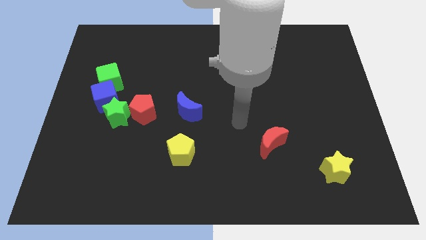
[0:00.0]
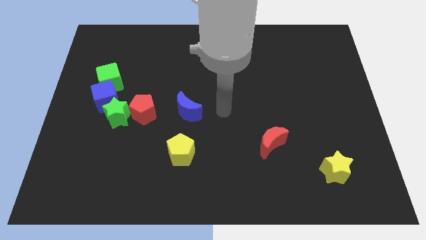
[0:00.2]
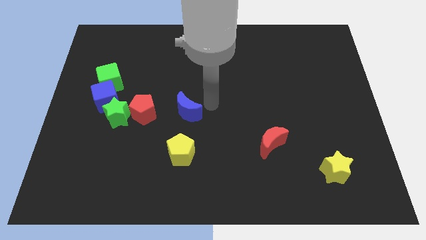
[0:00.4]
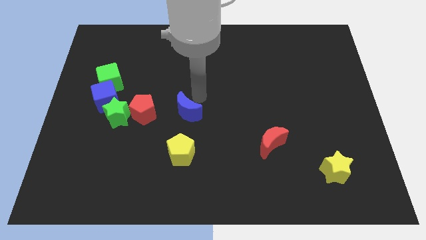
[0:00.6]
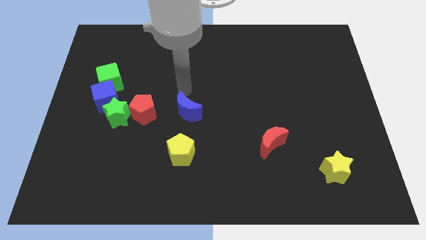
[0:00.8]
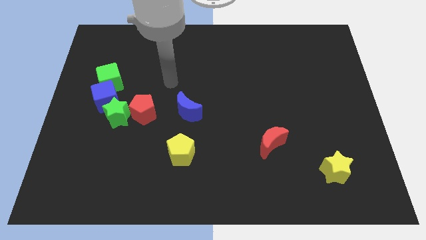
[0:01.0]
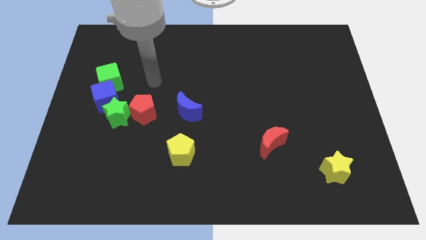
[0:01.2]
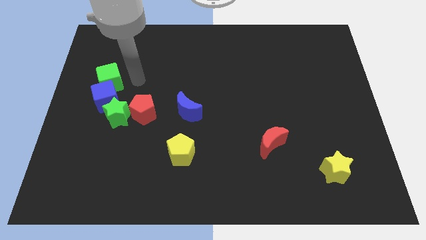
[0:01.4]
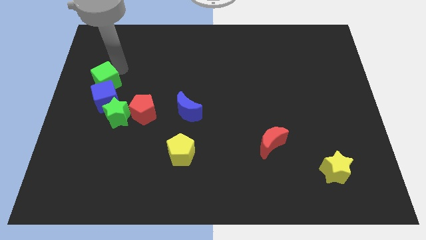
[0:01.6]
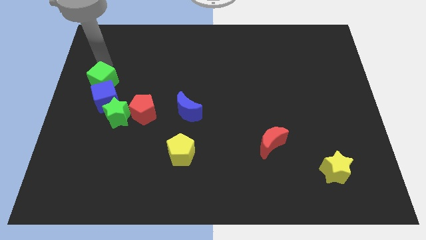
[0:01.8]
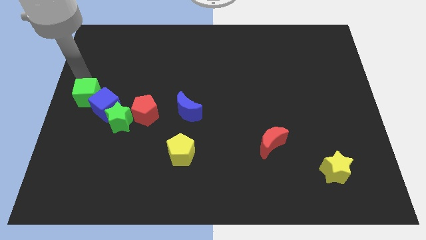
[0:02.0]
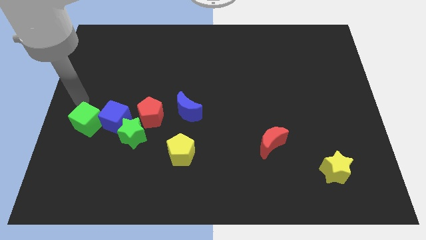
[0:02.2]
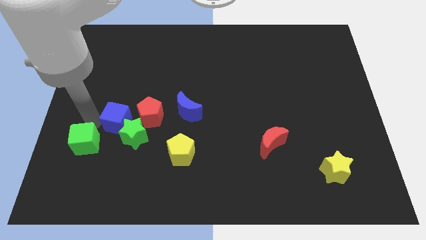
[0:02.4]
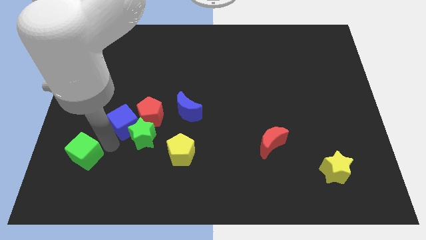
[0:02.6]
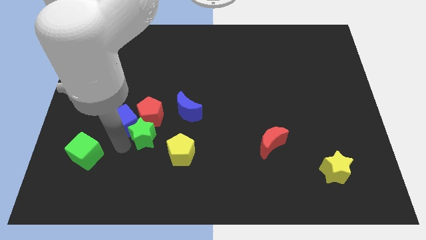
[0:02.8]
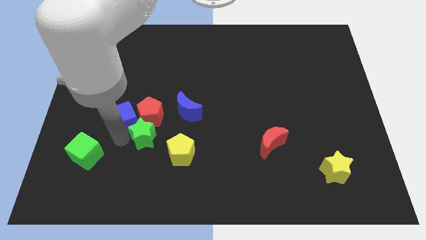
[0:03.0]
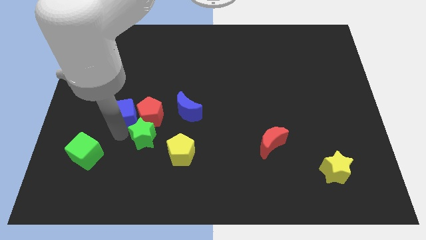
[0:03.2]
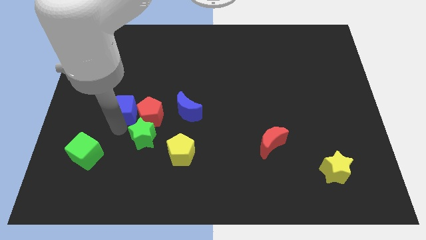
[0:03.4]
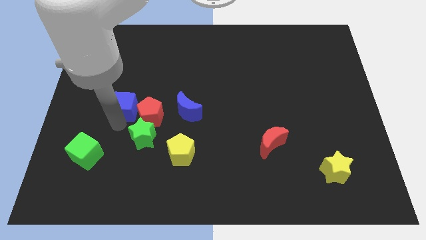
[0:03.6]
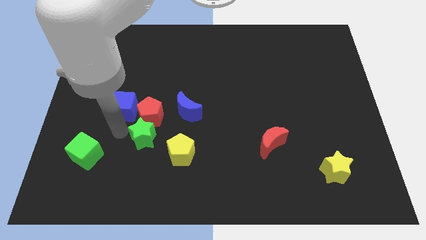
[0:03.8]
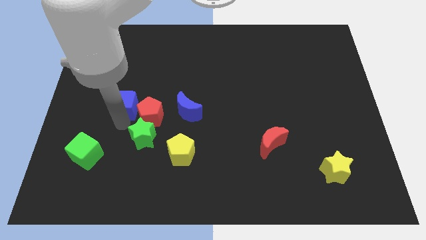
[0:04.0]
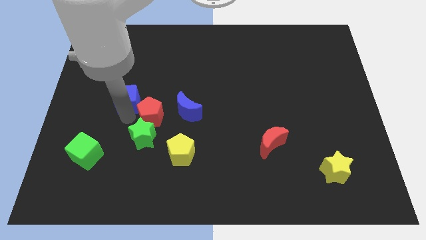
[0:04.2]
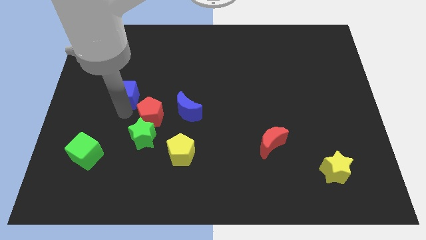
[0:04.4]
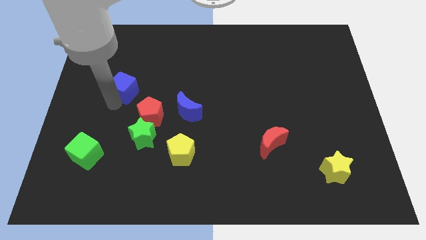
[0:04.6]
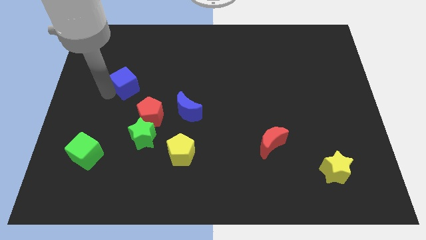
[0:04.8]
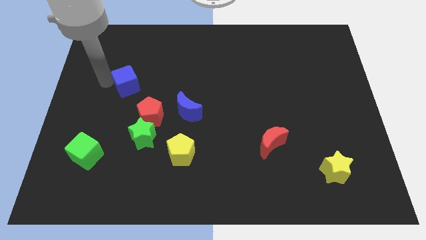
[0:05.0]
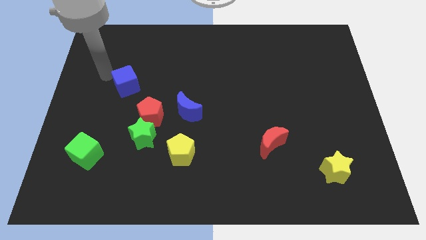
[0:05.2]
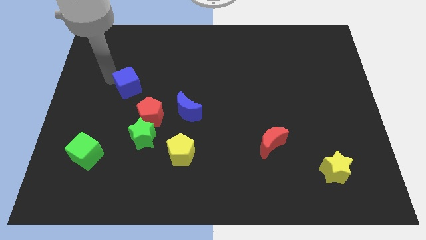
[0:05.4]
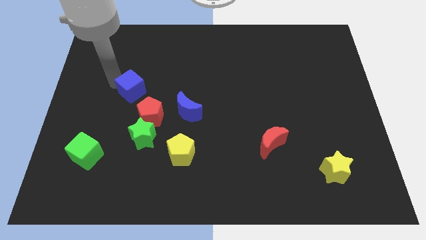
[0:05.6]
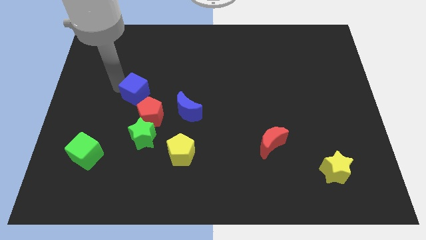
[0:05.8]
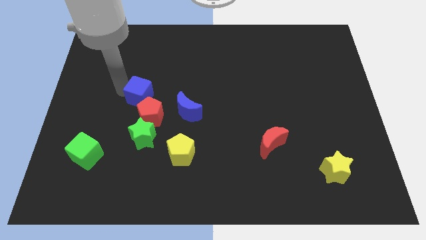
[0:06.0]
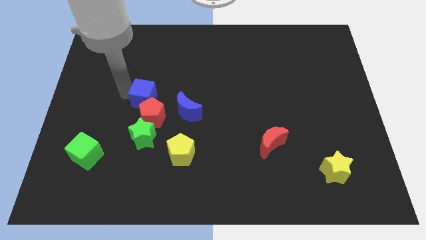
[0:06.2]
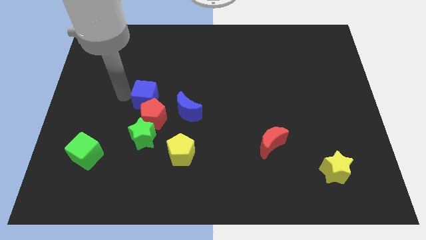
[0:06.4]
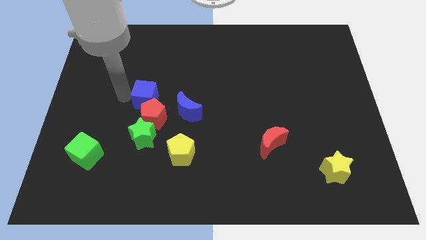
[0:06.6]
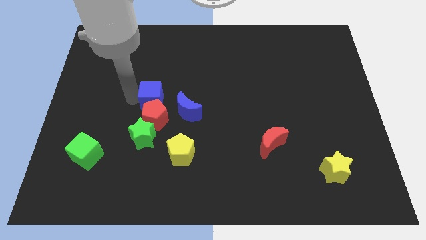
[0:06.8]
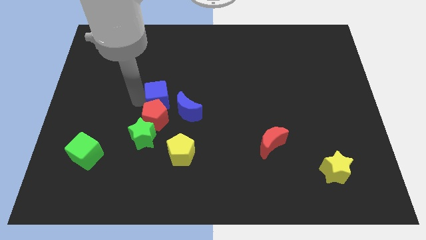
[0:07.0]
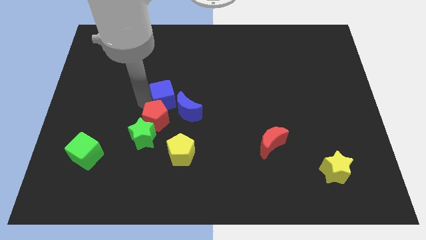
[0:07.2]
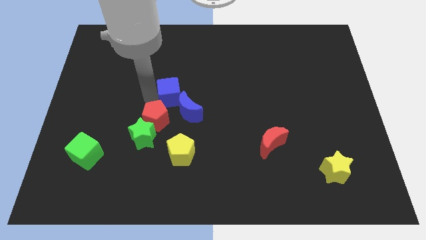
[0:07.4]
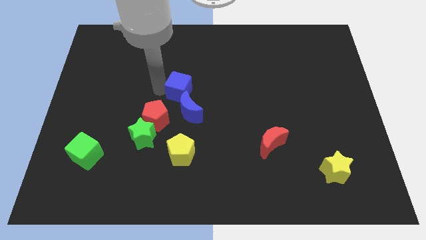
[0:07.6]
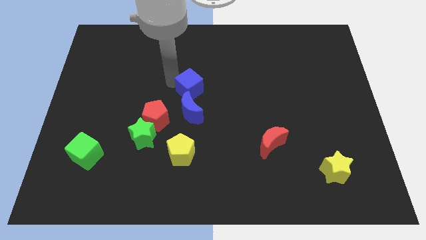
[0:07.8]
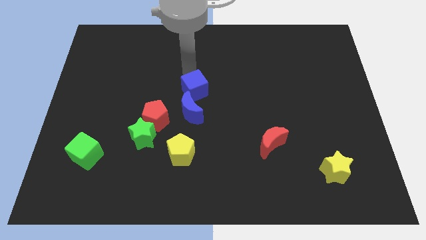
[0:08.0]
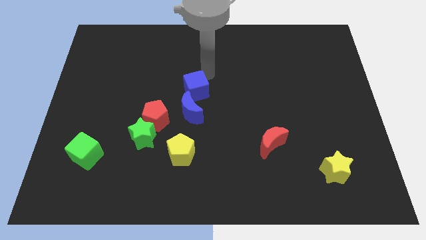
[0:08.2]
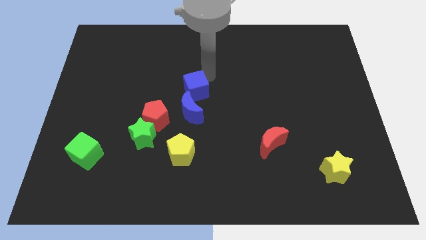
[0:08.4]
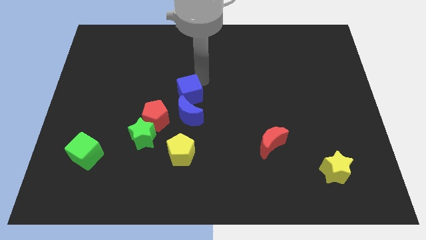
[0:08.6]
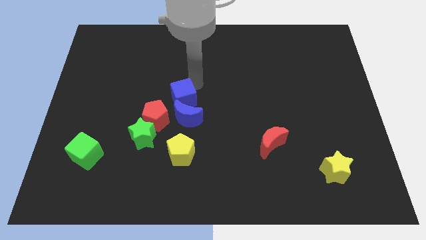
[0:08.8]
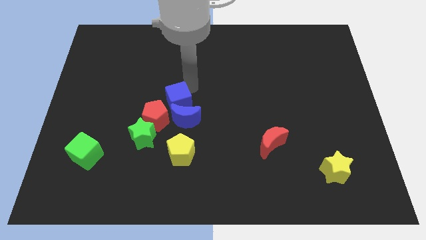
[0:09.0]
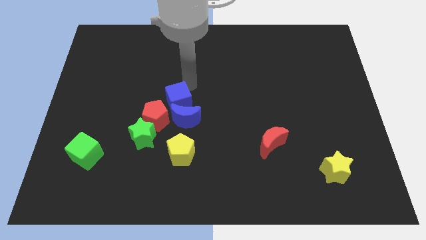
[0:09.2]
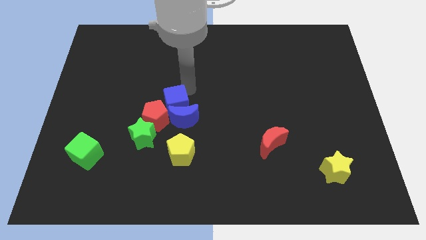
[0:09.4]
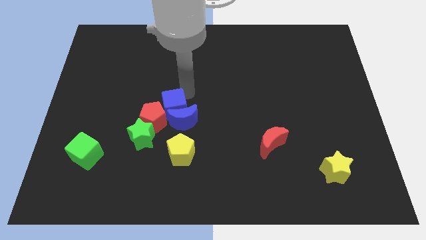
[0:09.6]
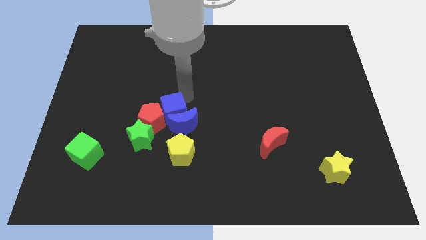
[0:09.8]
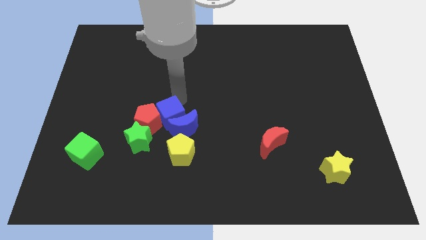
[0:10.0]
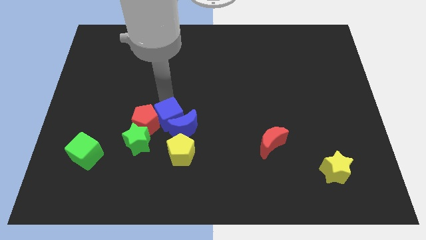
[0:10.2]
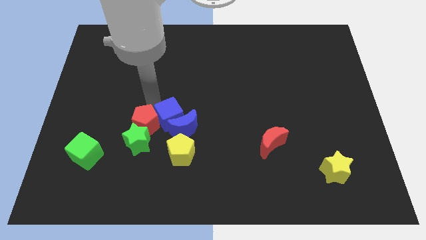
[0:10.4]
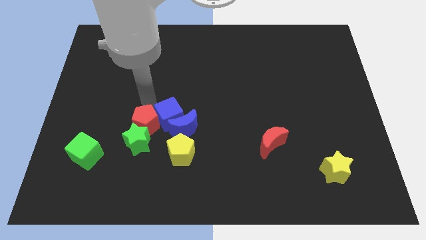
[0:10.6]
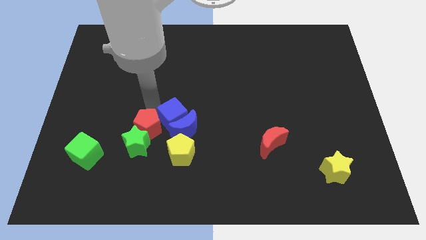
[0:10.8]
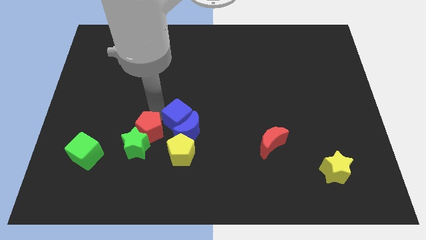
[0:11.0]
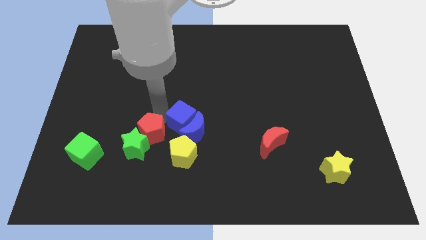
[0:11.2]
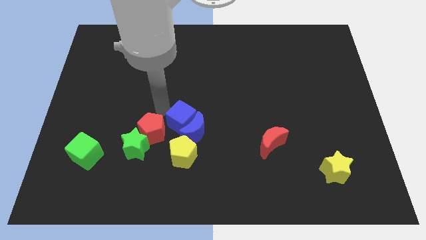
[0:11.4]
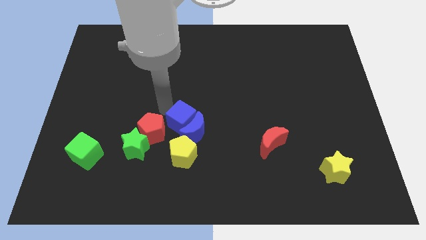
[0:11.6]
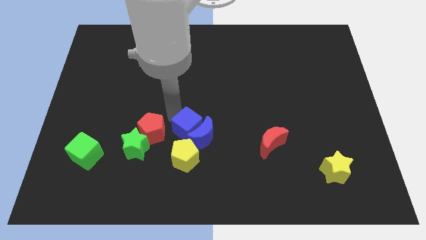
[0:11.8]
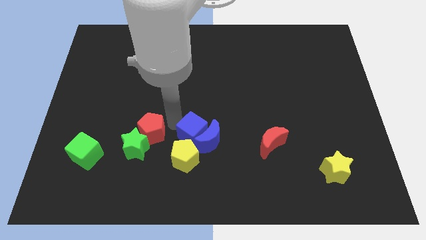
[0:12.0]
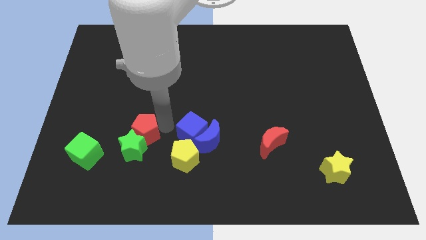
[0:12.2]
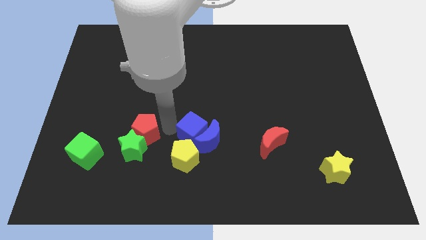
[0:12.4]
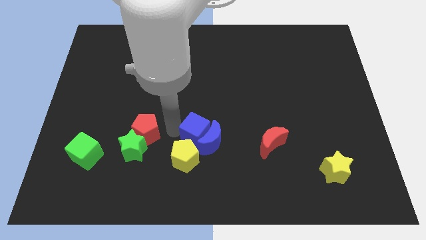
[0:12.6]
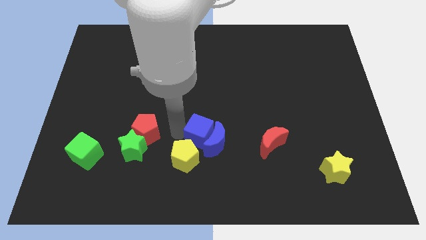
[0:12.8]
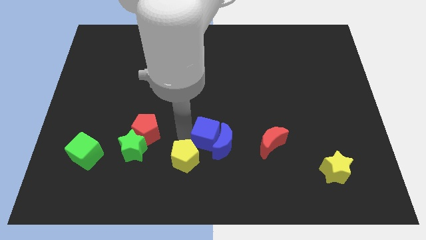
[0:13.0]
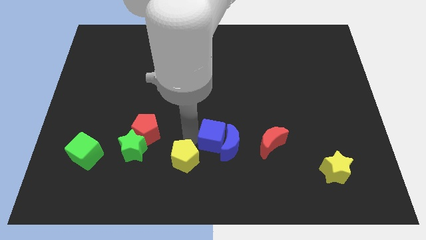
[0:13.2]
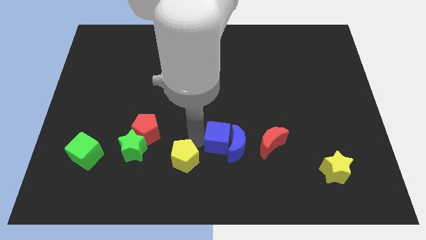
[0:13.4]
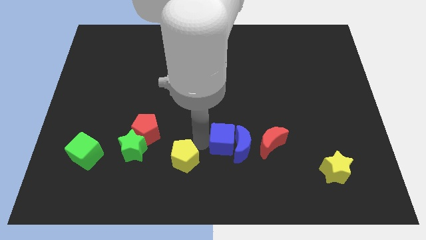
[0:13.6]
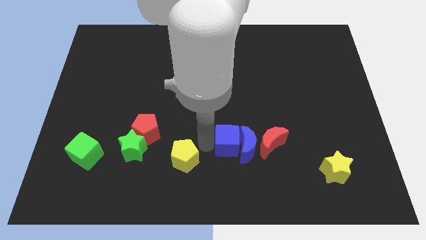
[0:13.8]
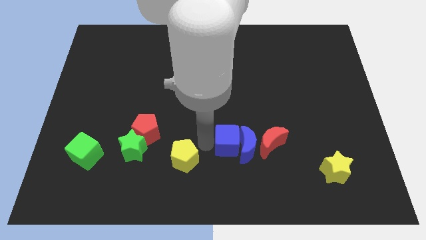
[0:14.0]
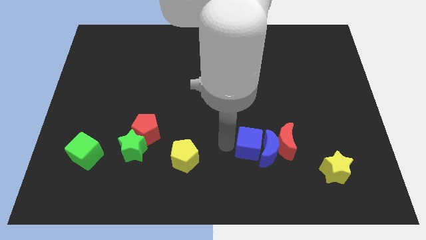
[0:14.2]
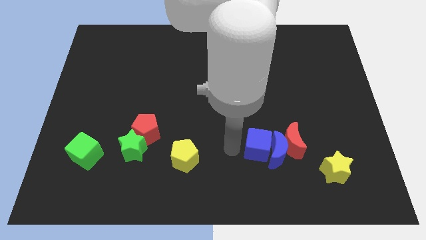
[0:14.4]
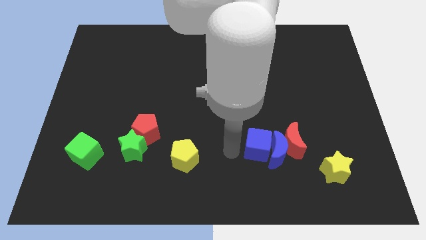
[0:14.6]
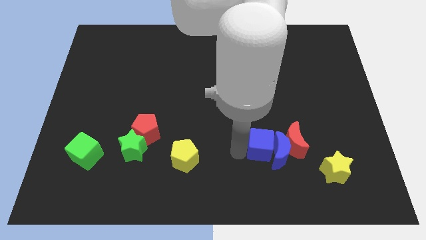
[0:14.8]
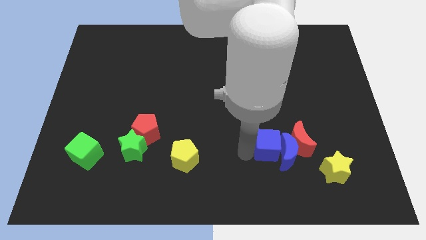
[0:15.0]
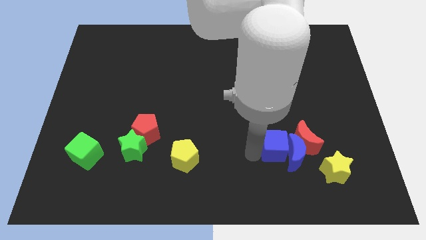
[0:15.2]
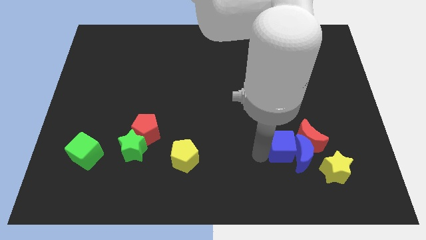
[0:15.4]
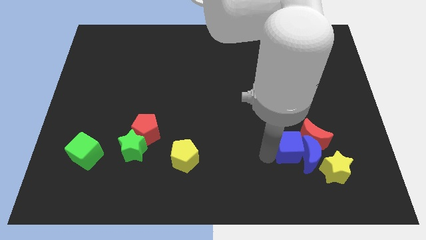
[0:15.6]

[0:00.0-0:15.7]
slide the blue cube towards the red moon
